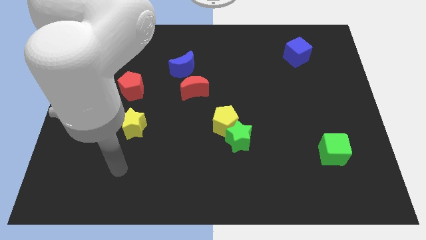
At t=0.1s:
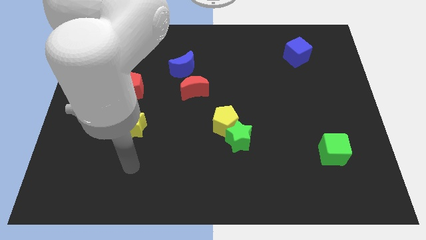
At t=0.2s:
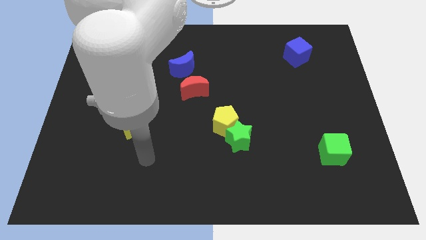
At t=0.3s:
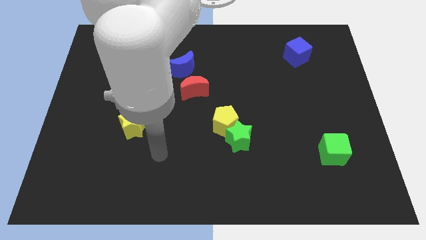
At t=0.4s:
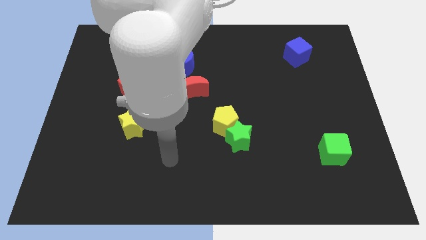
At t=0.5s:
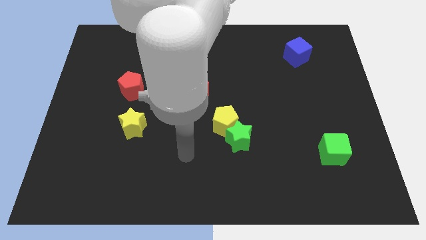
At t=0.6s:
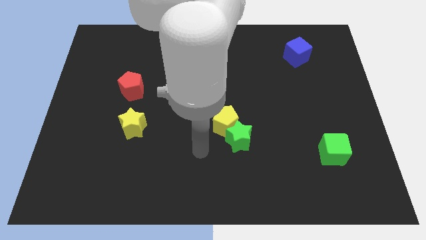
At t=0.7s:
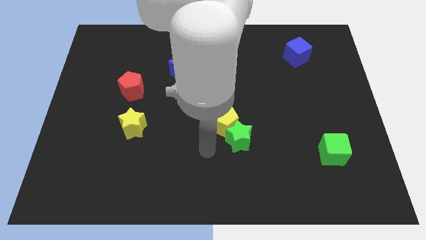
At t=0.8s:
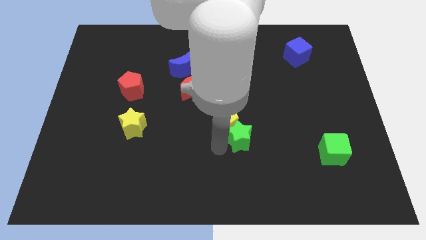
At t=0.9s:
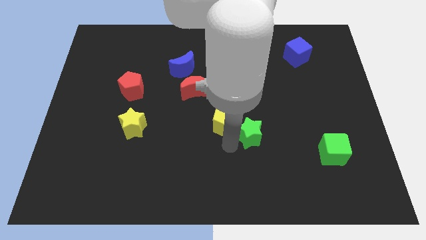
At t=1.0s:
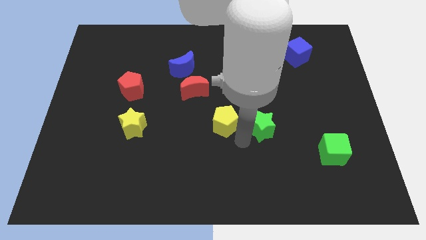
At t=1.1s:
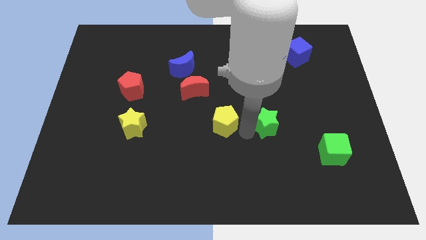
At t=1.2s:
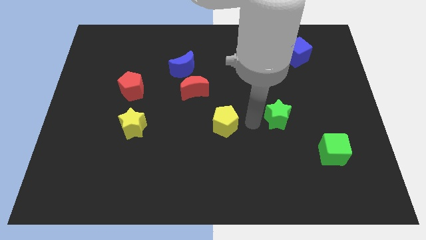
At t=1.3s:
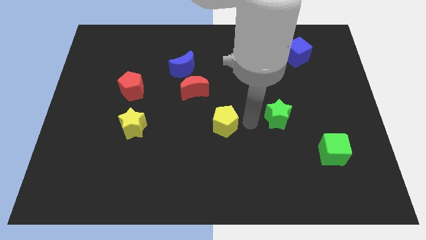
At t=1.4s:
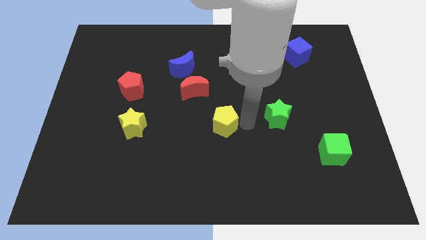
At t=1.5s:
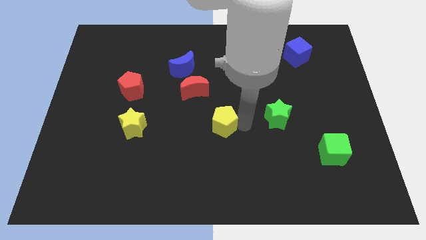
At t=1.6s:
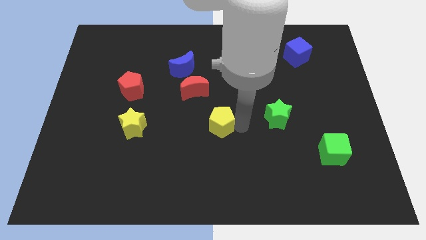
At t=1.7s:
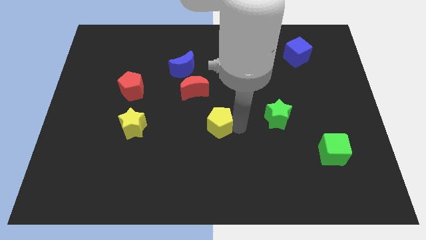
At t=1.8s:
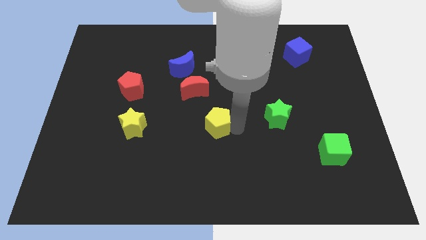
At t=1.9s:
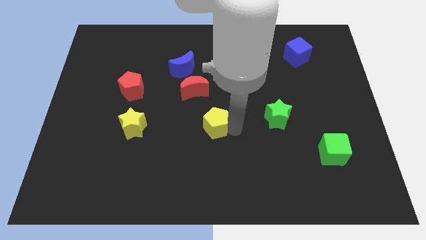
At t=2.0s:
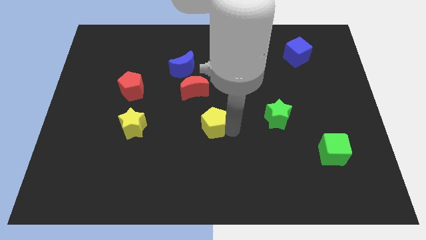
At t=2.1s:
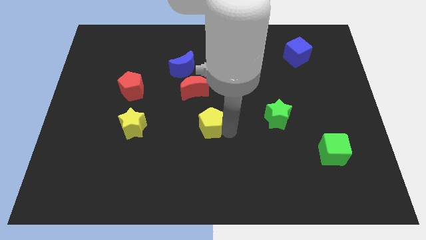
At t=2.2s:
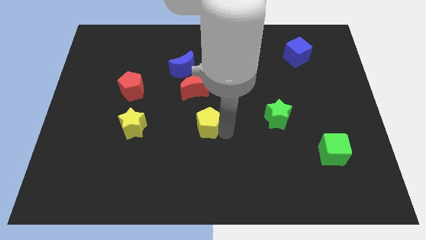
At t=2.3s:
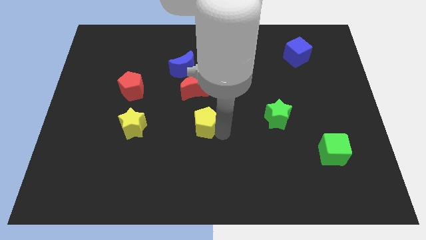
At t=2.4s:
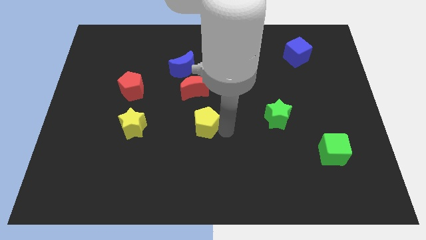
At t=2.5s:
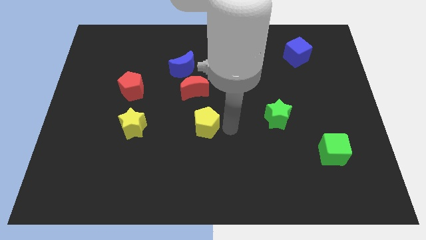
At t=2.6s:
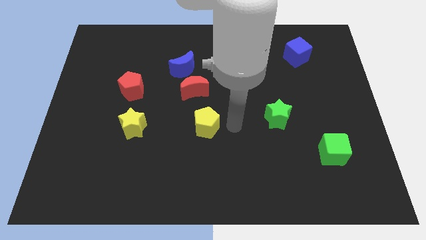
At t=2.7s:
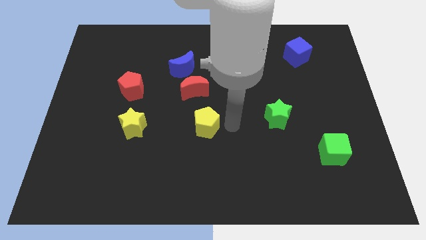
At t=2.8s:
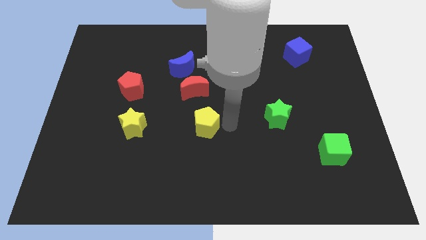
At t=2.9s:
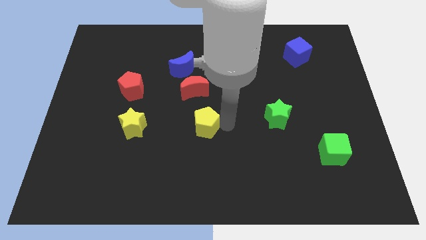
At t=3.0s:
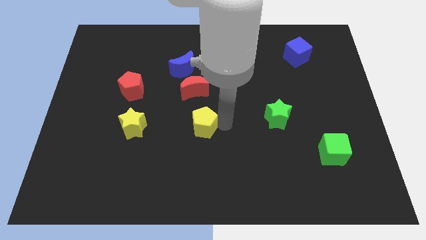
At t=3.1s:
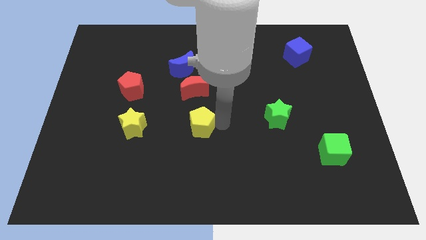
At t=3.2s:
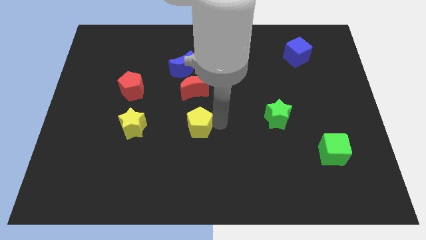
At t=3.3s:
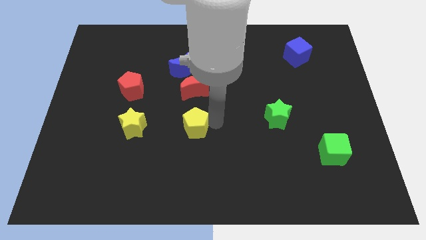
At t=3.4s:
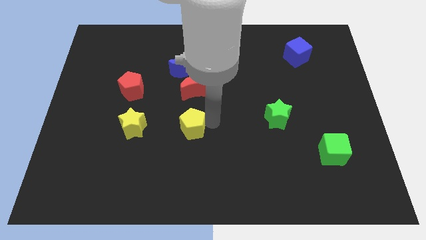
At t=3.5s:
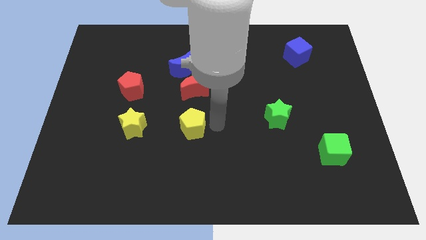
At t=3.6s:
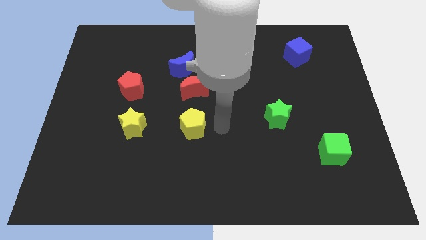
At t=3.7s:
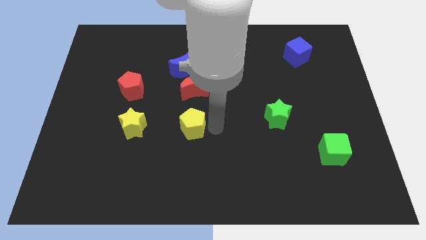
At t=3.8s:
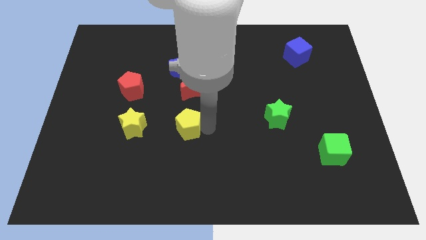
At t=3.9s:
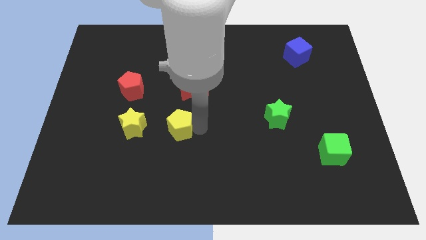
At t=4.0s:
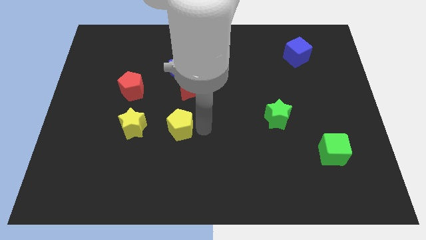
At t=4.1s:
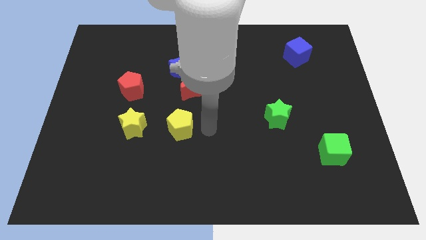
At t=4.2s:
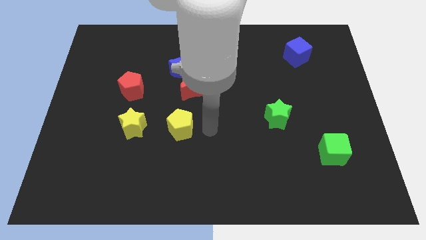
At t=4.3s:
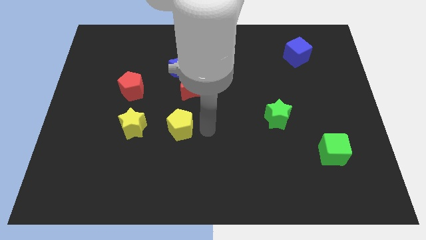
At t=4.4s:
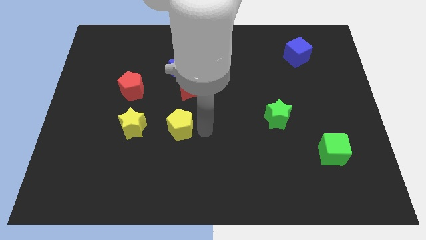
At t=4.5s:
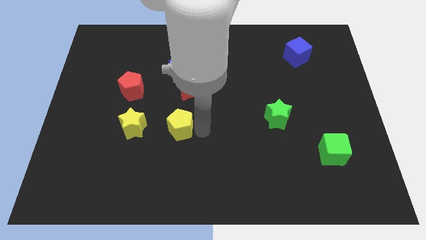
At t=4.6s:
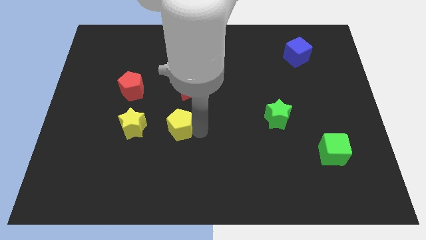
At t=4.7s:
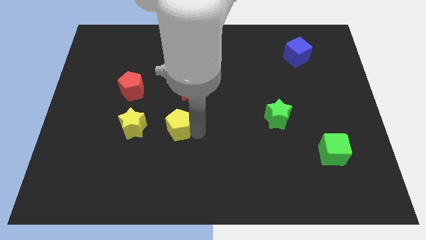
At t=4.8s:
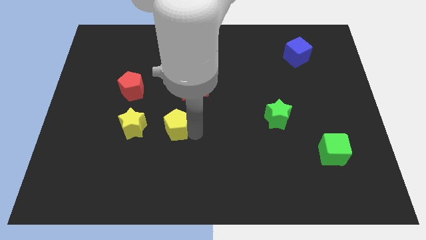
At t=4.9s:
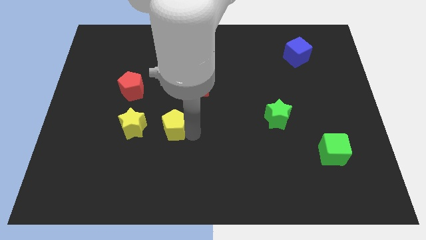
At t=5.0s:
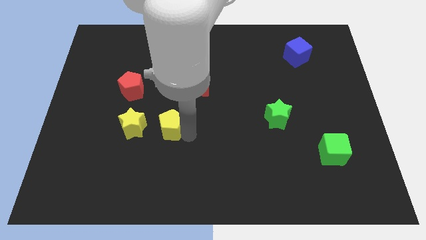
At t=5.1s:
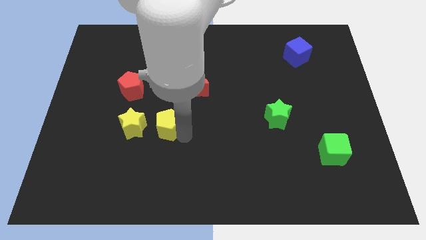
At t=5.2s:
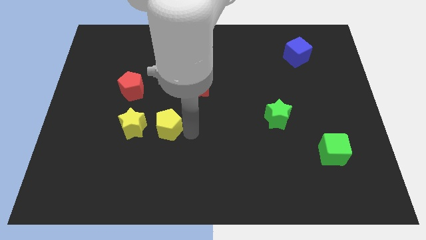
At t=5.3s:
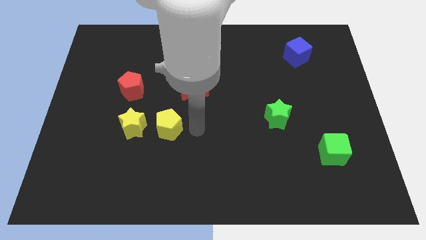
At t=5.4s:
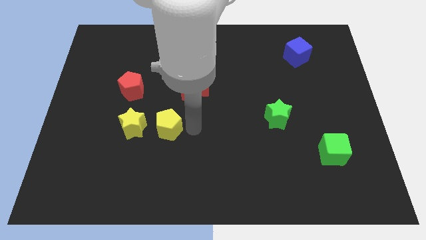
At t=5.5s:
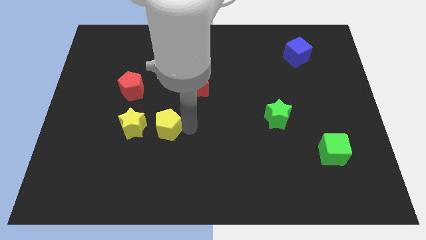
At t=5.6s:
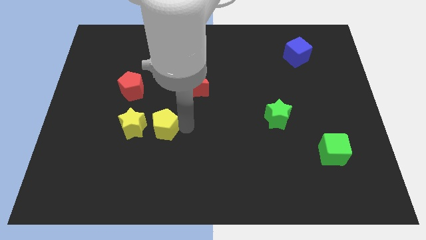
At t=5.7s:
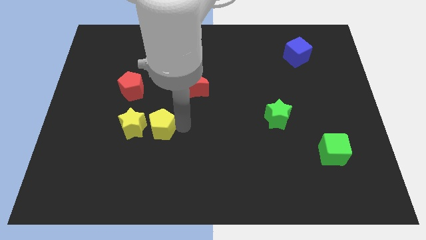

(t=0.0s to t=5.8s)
put the yellow pentagon next to the yellow star

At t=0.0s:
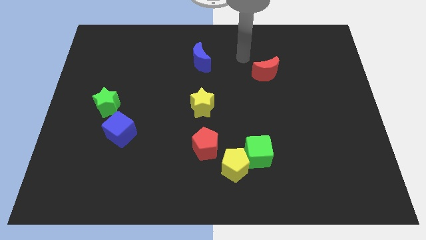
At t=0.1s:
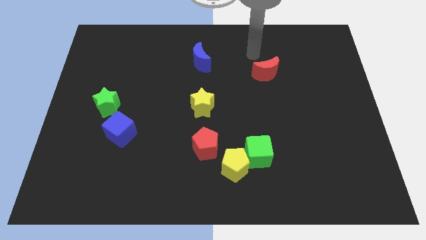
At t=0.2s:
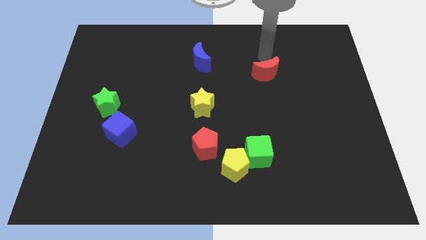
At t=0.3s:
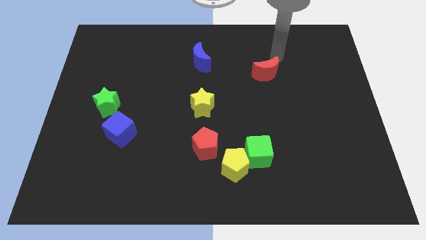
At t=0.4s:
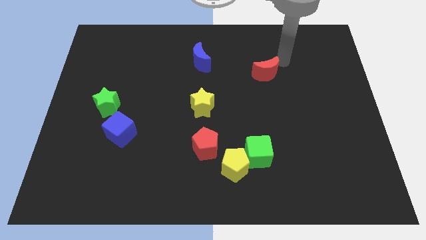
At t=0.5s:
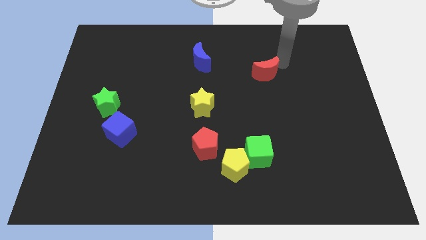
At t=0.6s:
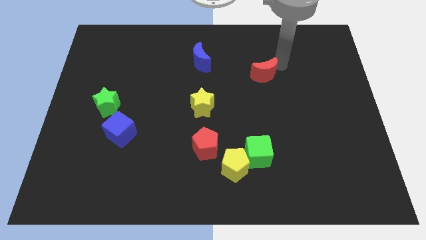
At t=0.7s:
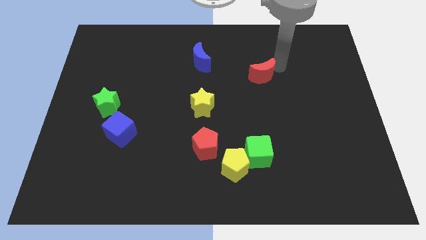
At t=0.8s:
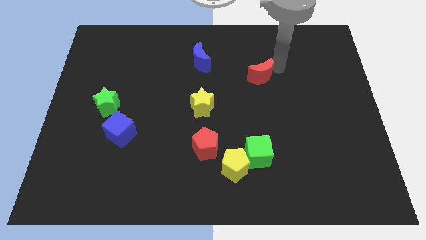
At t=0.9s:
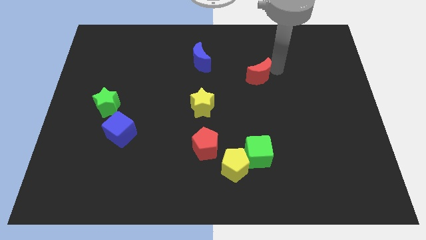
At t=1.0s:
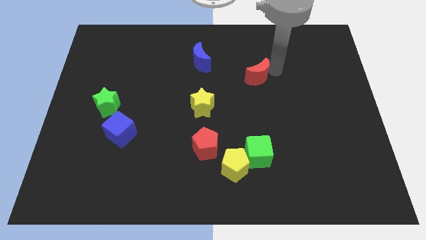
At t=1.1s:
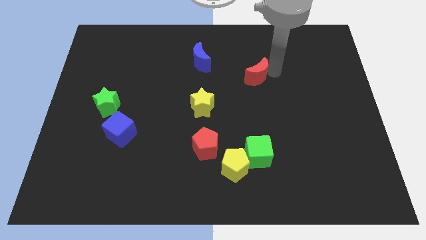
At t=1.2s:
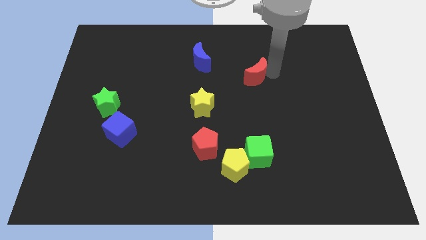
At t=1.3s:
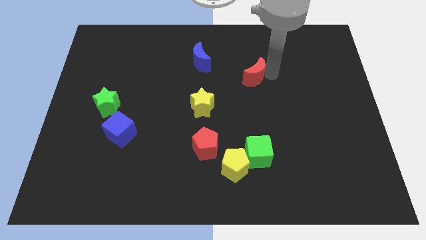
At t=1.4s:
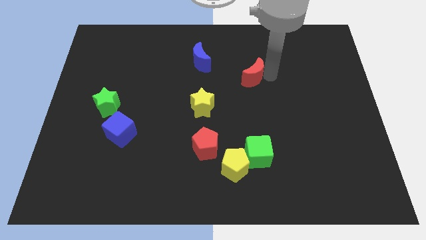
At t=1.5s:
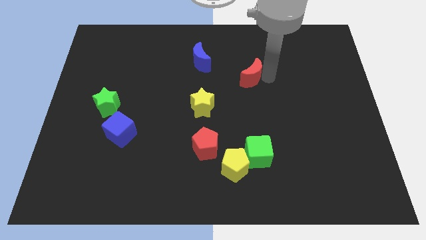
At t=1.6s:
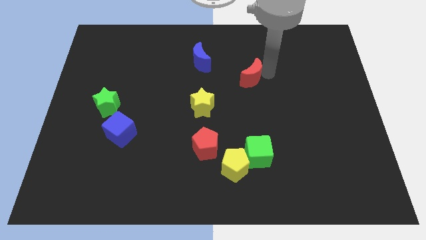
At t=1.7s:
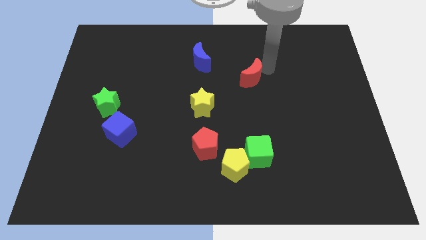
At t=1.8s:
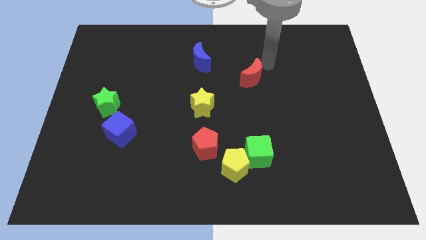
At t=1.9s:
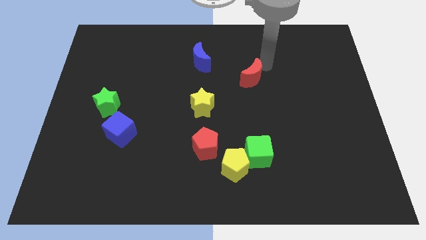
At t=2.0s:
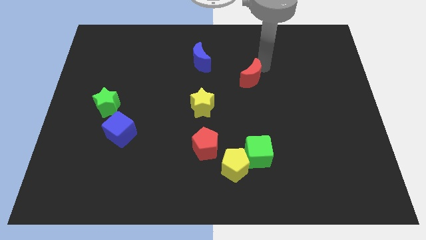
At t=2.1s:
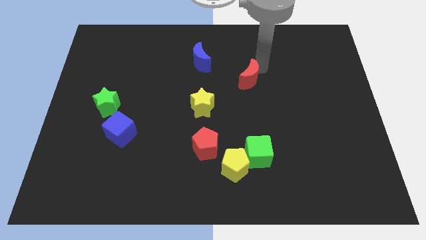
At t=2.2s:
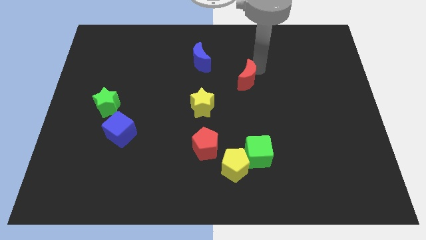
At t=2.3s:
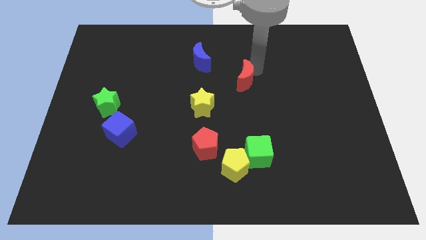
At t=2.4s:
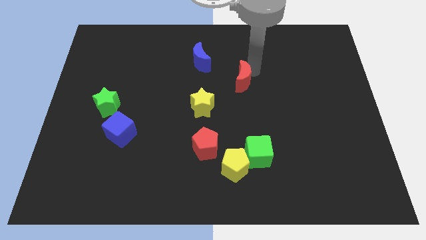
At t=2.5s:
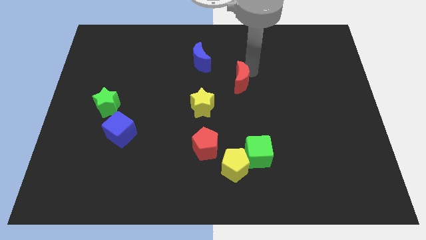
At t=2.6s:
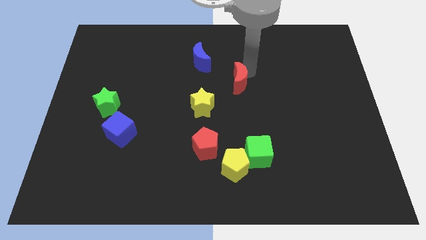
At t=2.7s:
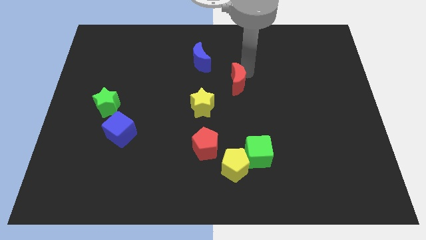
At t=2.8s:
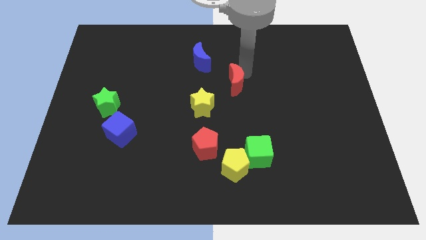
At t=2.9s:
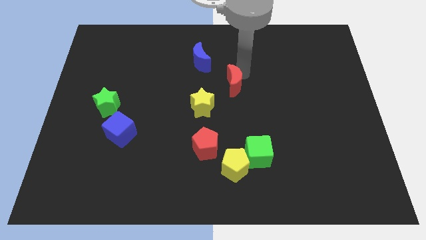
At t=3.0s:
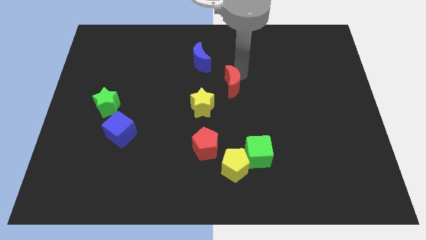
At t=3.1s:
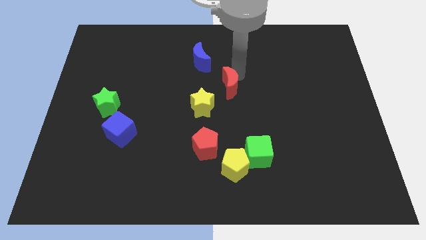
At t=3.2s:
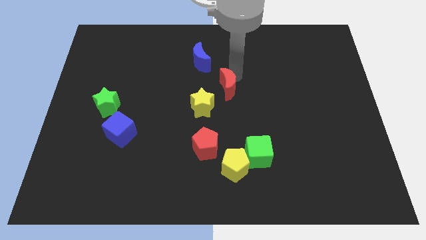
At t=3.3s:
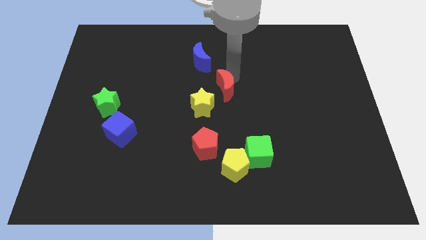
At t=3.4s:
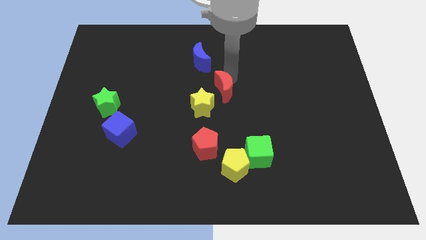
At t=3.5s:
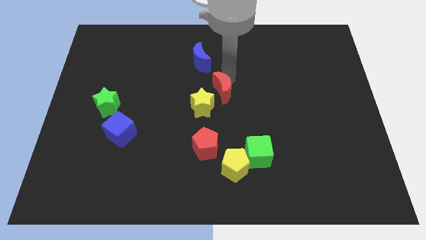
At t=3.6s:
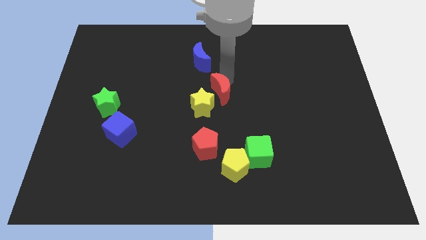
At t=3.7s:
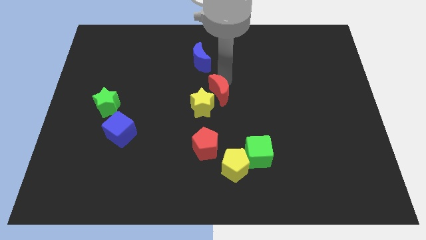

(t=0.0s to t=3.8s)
move the red moon towards the yellow star
